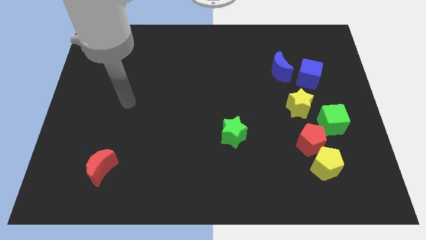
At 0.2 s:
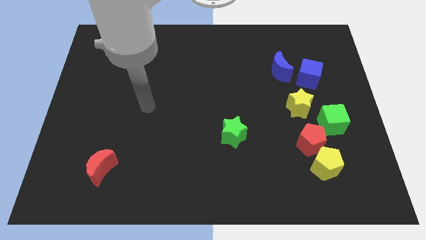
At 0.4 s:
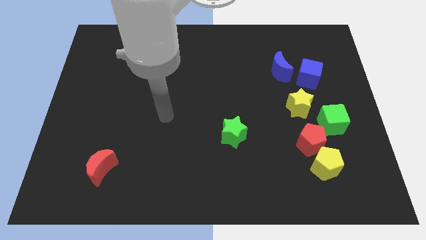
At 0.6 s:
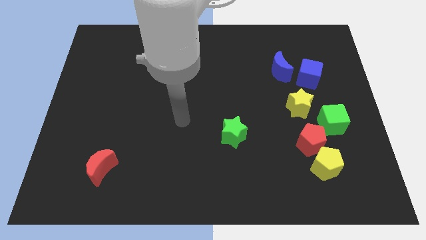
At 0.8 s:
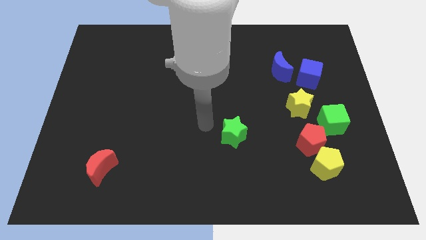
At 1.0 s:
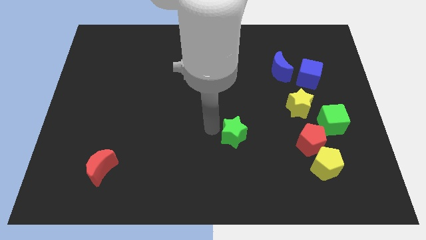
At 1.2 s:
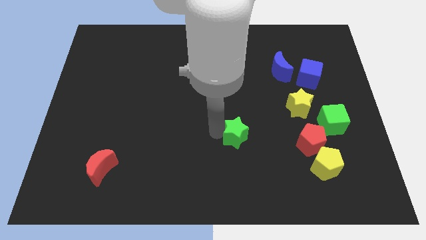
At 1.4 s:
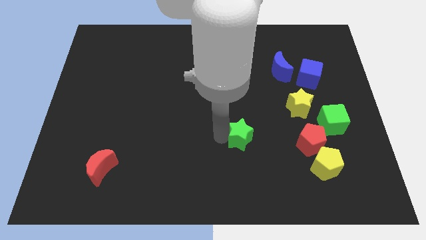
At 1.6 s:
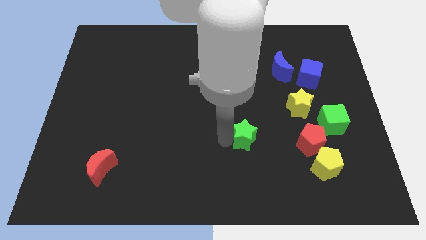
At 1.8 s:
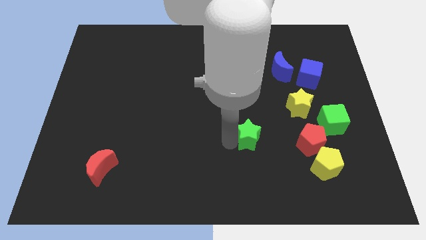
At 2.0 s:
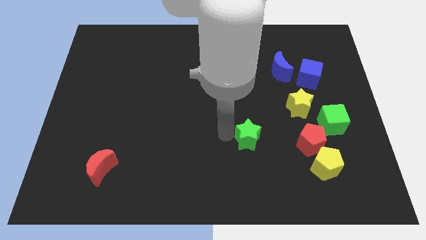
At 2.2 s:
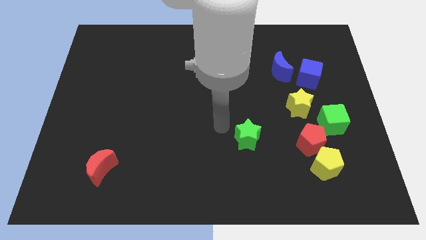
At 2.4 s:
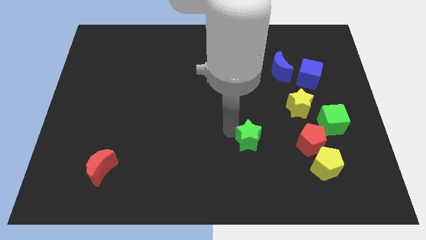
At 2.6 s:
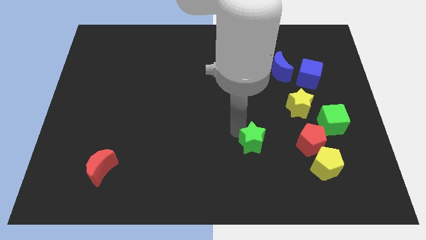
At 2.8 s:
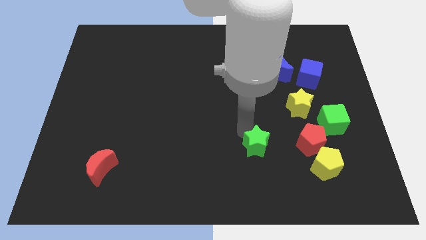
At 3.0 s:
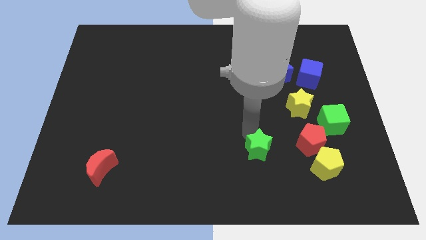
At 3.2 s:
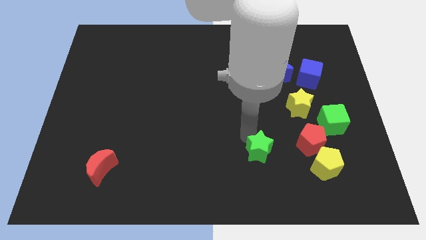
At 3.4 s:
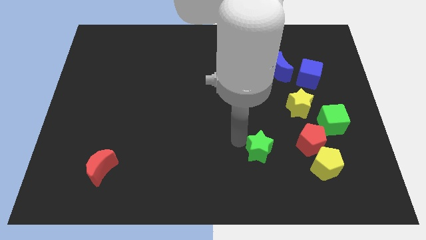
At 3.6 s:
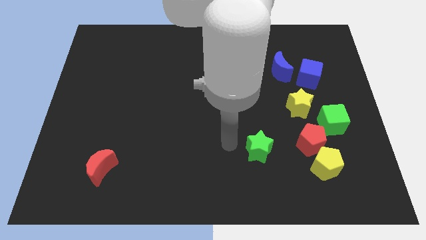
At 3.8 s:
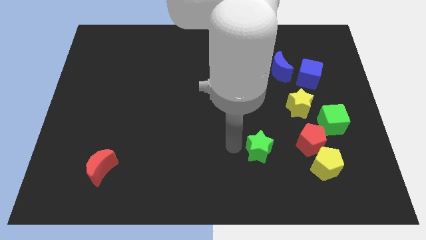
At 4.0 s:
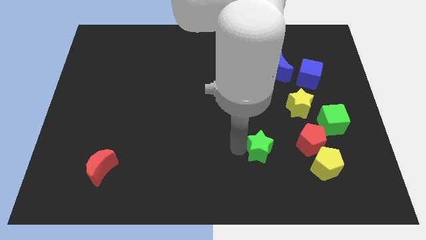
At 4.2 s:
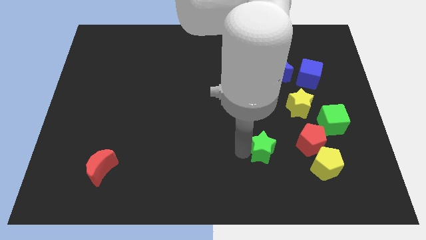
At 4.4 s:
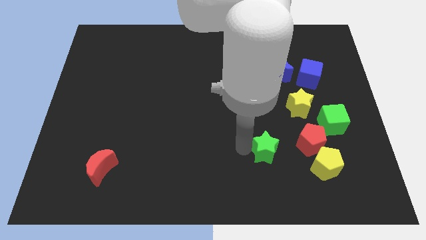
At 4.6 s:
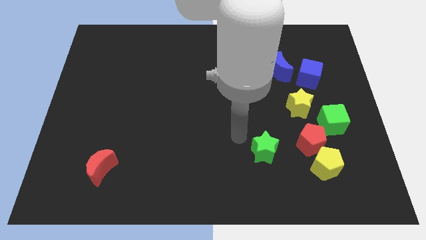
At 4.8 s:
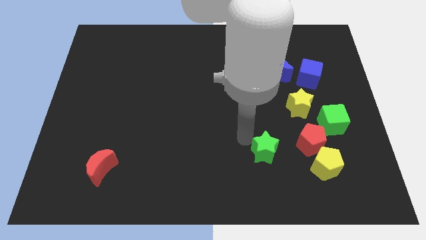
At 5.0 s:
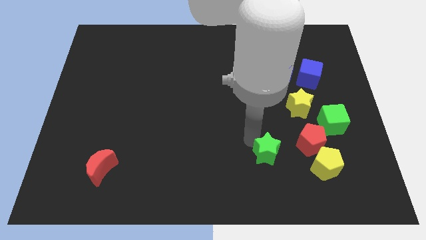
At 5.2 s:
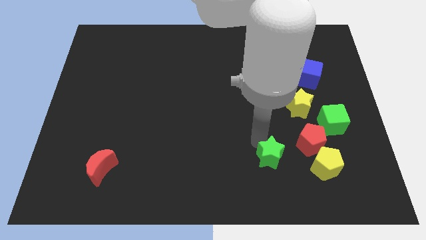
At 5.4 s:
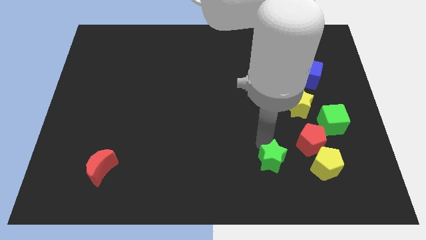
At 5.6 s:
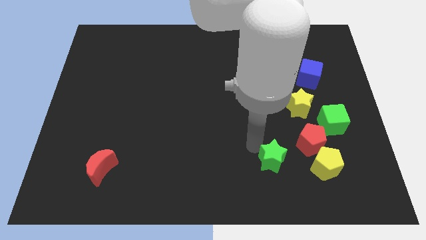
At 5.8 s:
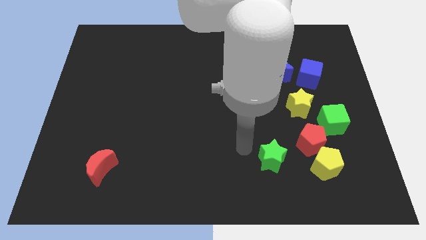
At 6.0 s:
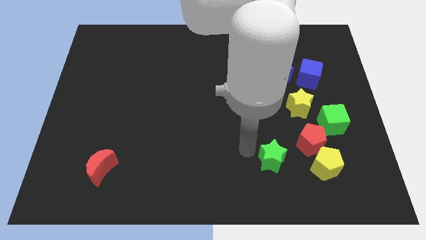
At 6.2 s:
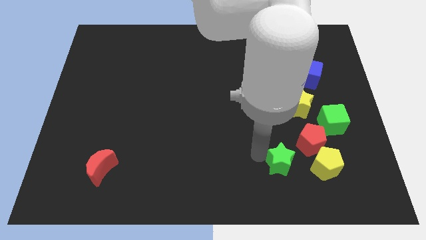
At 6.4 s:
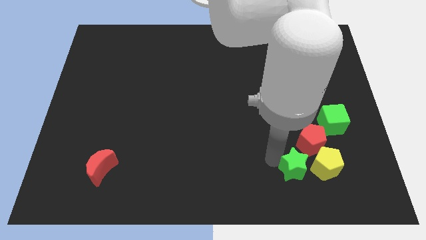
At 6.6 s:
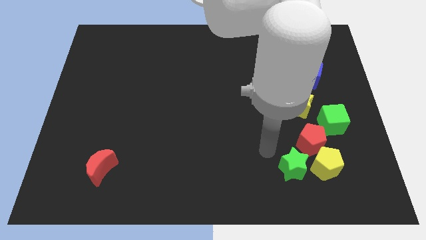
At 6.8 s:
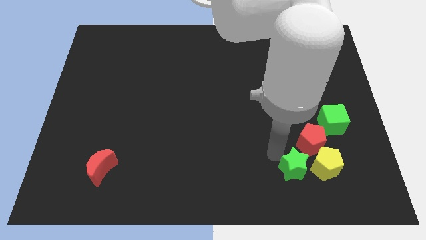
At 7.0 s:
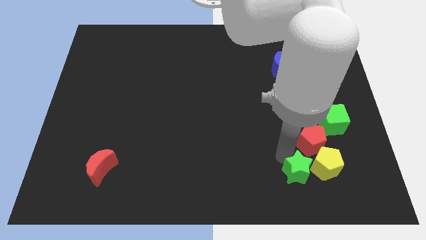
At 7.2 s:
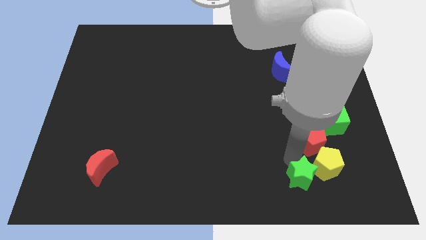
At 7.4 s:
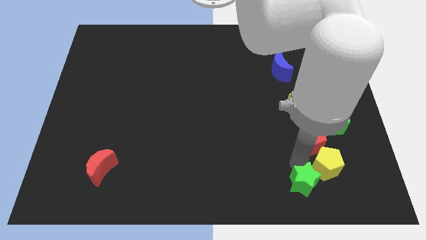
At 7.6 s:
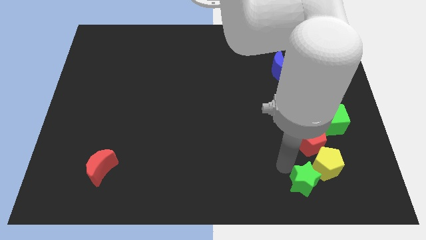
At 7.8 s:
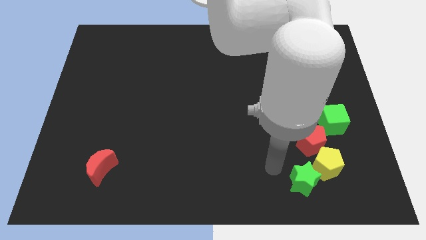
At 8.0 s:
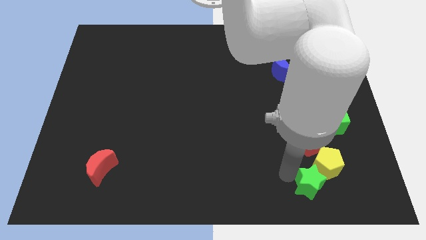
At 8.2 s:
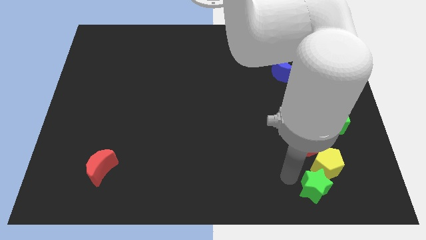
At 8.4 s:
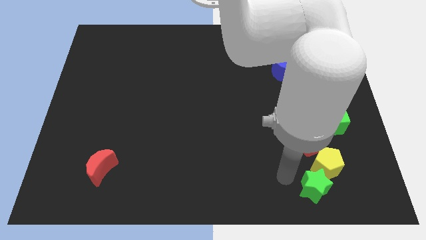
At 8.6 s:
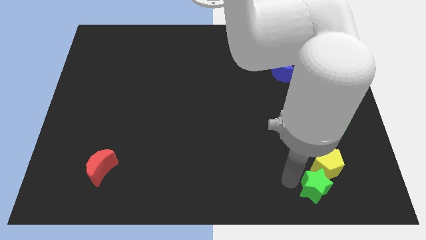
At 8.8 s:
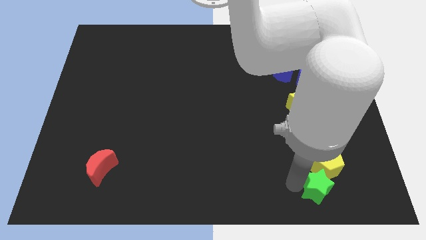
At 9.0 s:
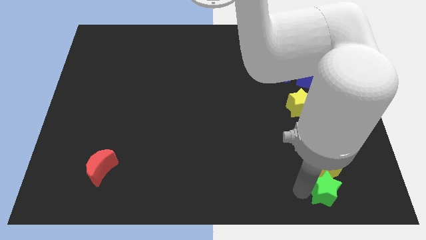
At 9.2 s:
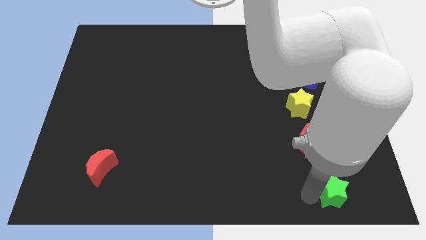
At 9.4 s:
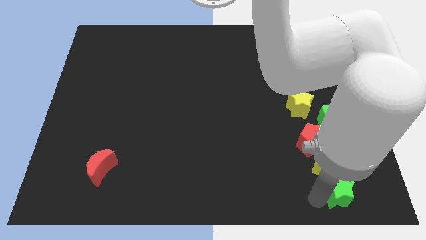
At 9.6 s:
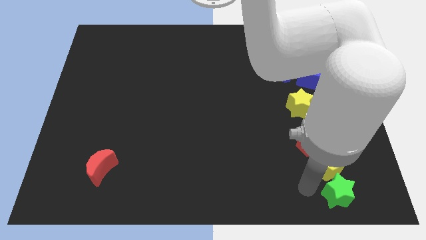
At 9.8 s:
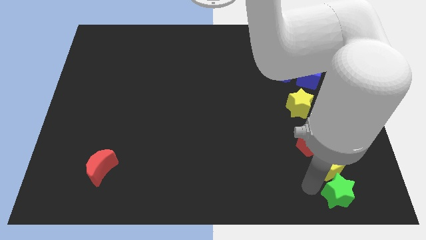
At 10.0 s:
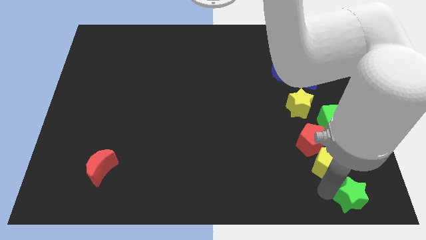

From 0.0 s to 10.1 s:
move the green star to the bottom right

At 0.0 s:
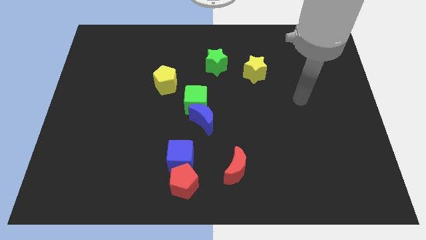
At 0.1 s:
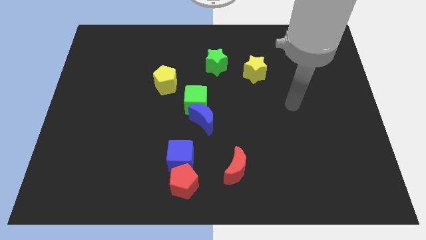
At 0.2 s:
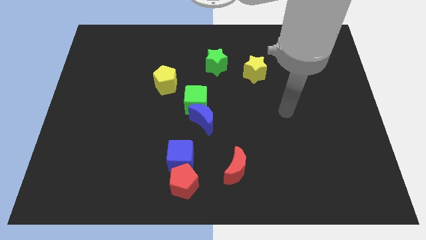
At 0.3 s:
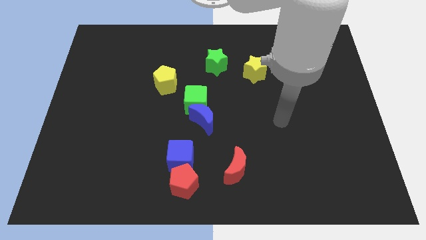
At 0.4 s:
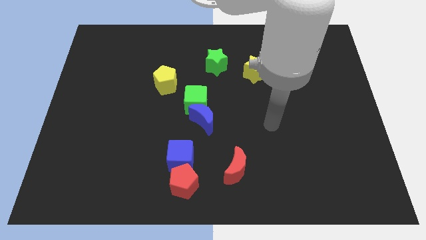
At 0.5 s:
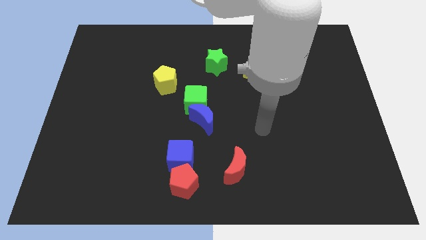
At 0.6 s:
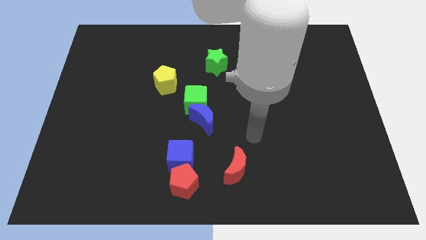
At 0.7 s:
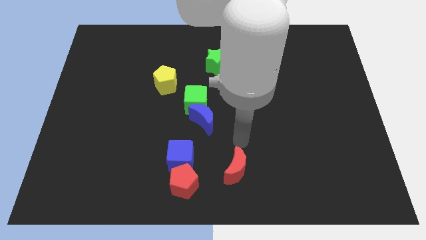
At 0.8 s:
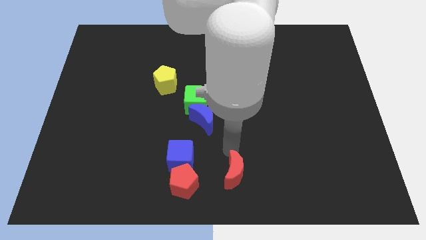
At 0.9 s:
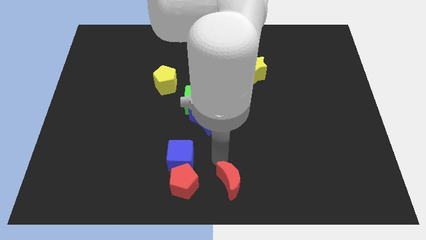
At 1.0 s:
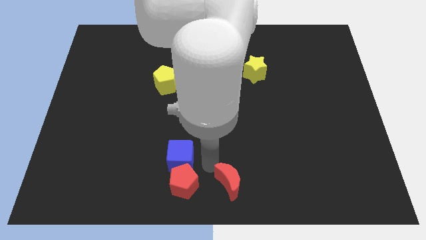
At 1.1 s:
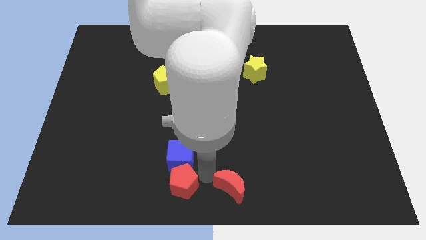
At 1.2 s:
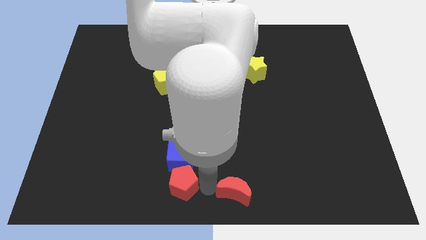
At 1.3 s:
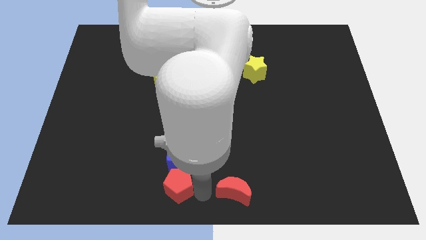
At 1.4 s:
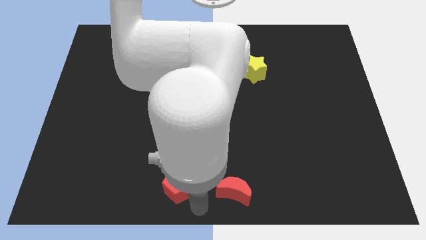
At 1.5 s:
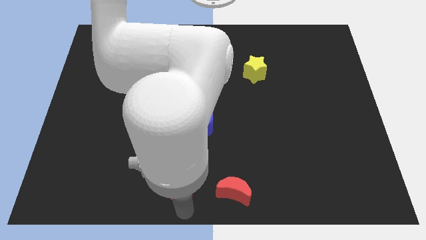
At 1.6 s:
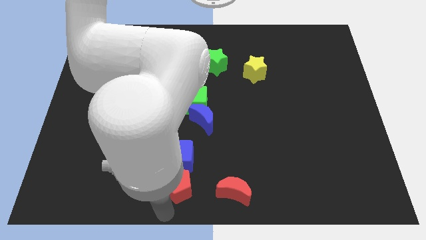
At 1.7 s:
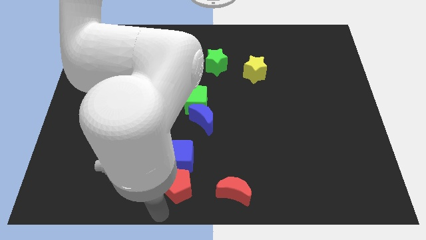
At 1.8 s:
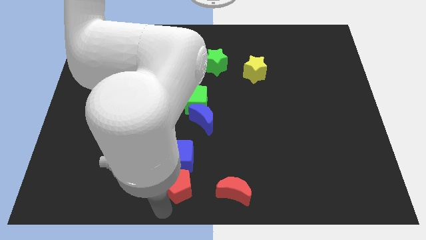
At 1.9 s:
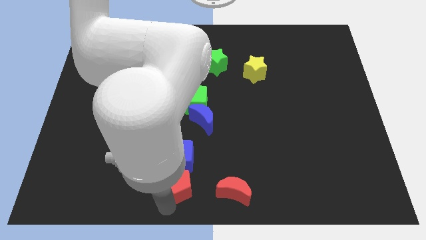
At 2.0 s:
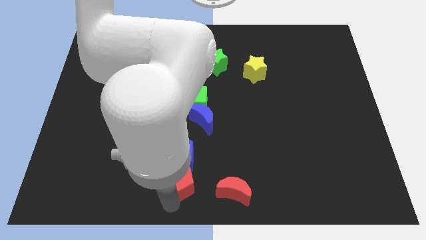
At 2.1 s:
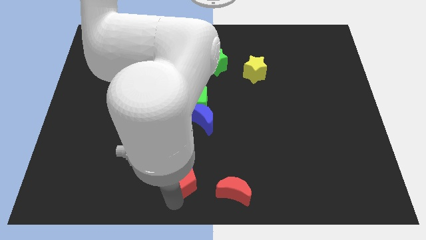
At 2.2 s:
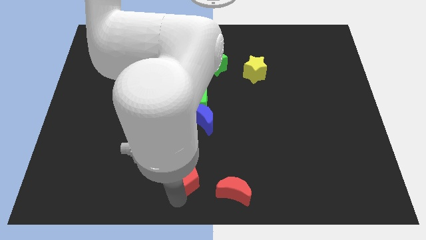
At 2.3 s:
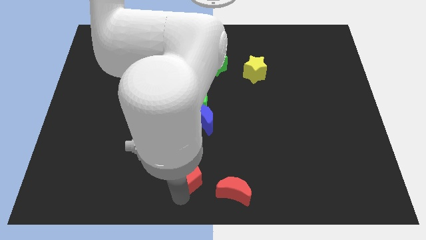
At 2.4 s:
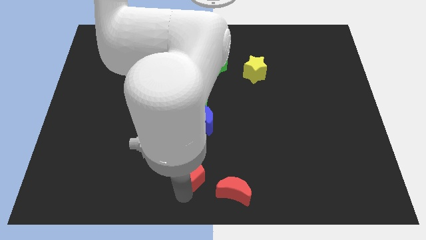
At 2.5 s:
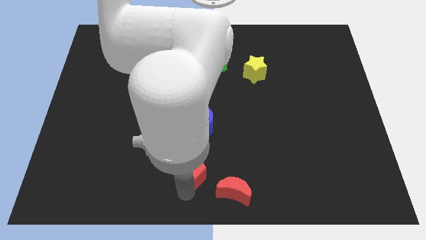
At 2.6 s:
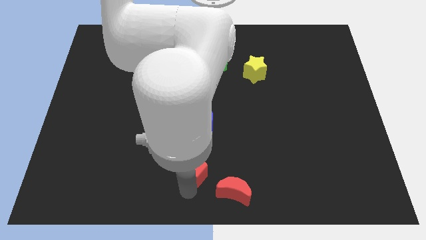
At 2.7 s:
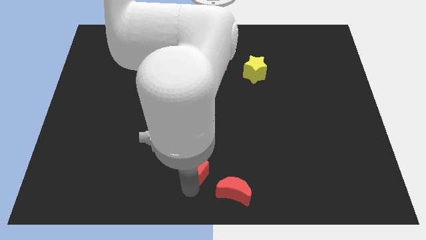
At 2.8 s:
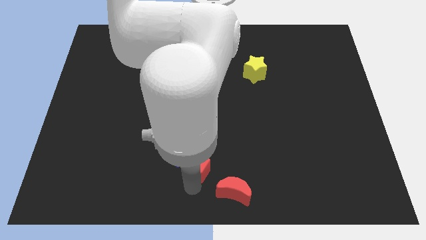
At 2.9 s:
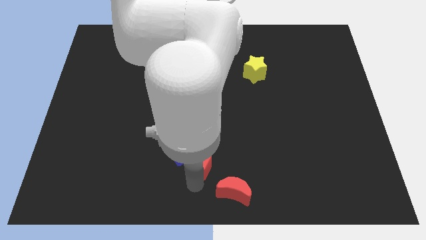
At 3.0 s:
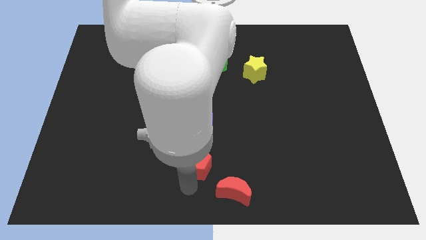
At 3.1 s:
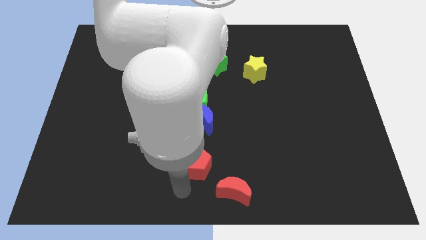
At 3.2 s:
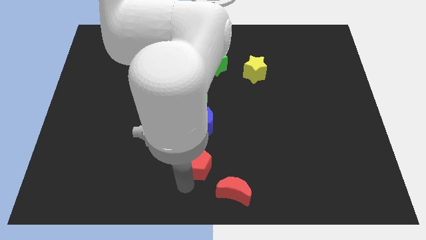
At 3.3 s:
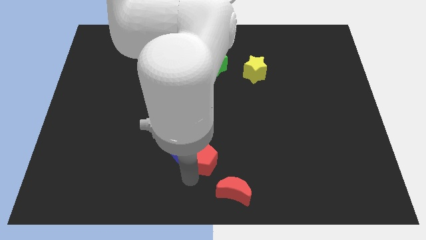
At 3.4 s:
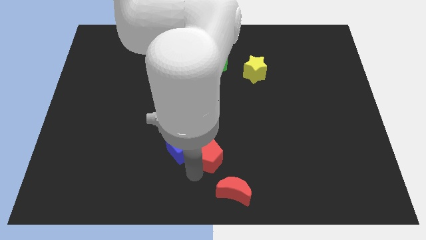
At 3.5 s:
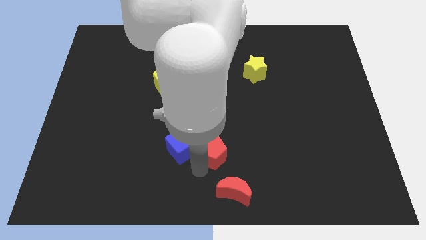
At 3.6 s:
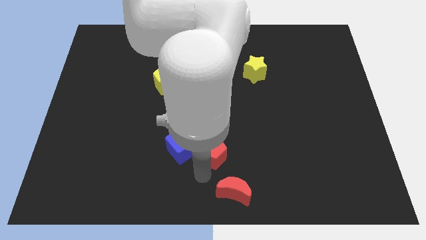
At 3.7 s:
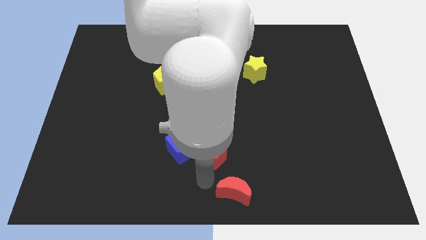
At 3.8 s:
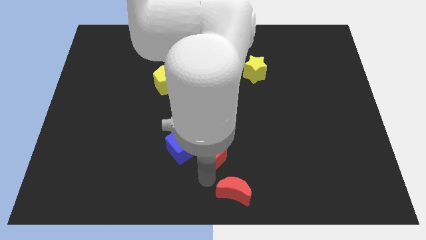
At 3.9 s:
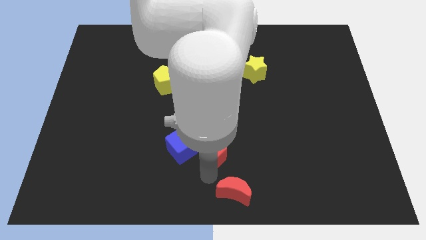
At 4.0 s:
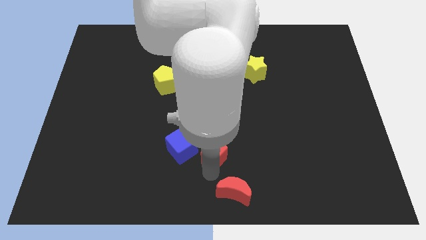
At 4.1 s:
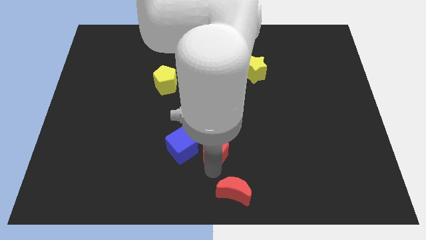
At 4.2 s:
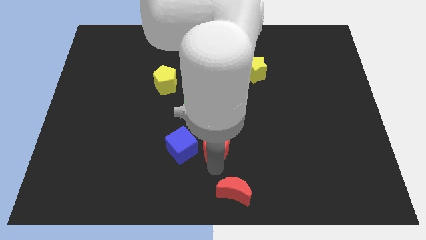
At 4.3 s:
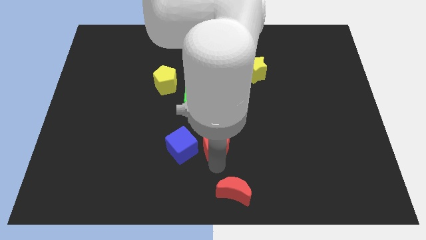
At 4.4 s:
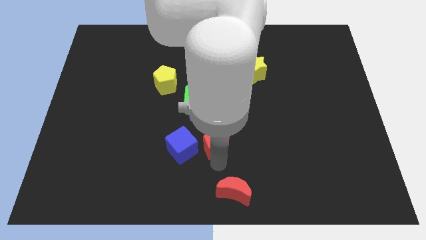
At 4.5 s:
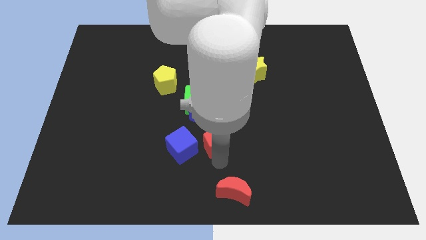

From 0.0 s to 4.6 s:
put the red pentagon to the middle
